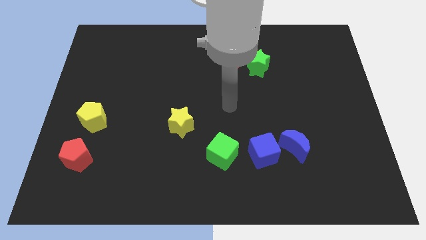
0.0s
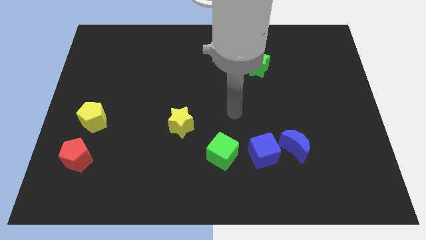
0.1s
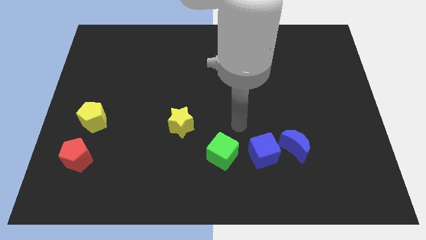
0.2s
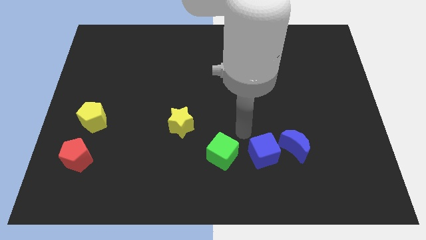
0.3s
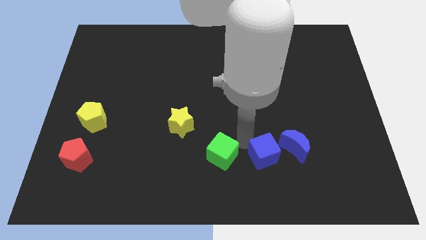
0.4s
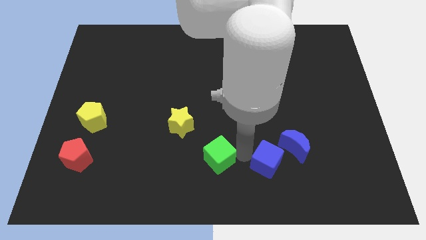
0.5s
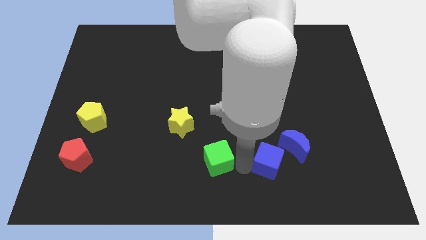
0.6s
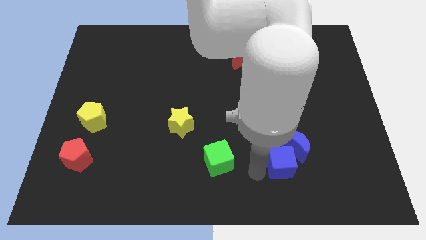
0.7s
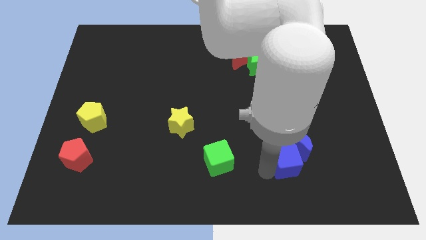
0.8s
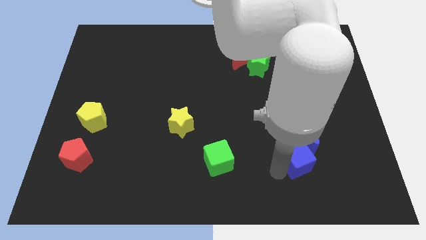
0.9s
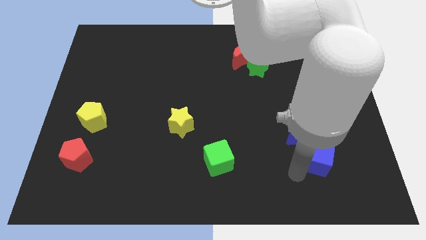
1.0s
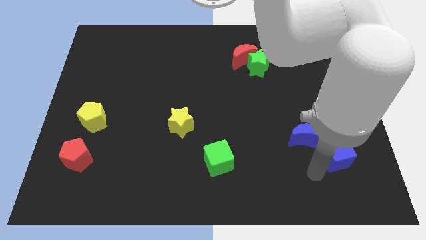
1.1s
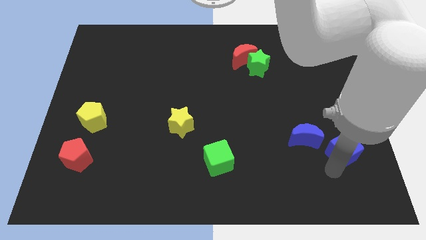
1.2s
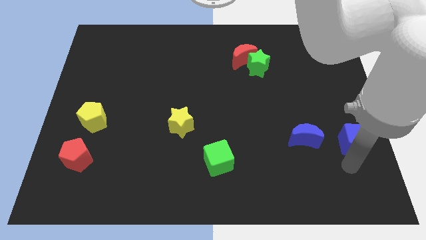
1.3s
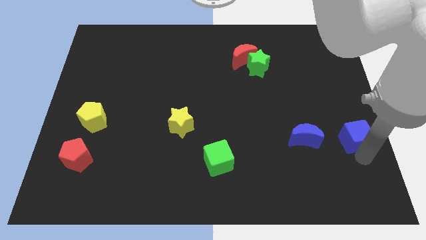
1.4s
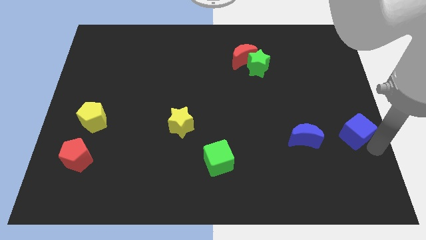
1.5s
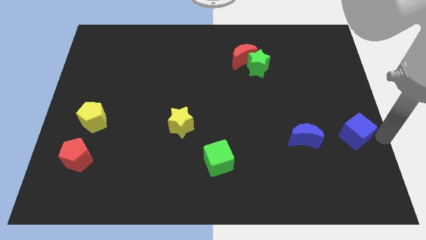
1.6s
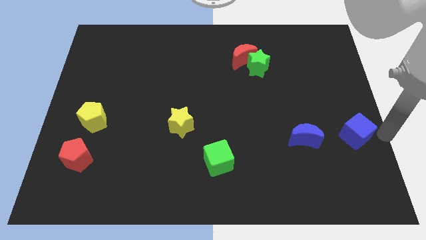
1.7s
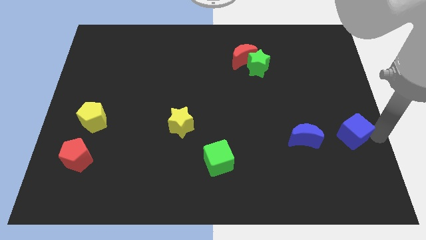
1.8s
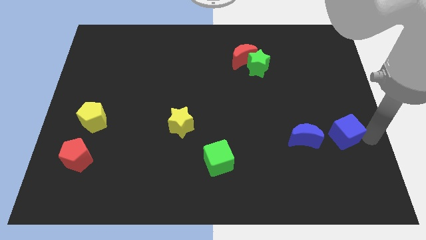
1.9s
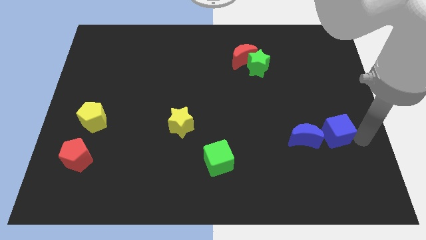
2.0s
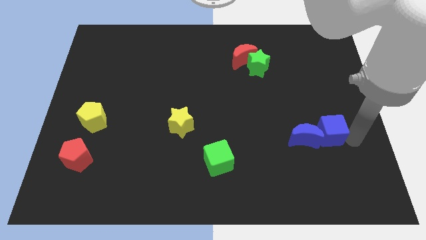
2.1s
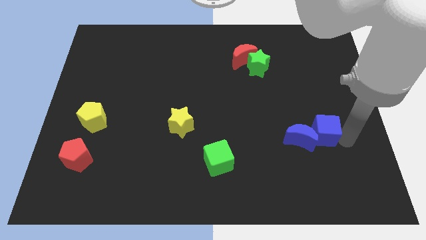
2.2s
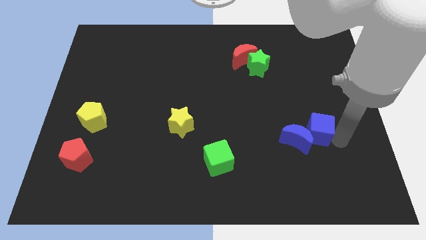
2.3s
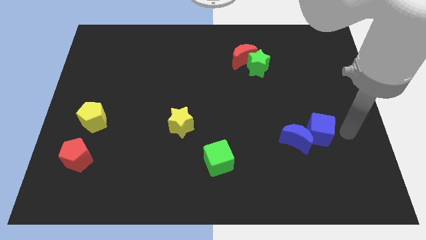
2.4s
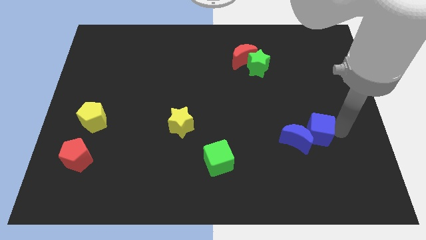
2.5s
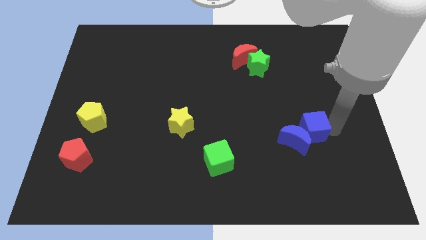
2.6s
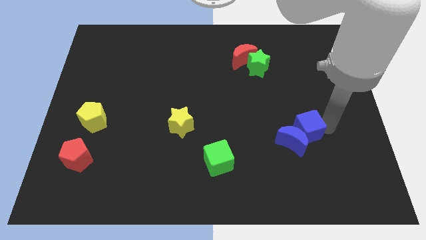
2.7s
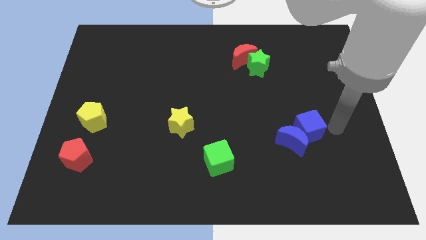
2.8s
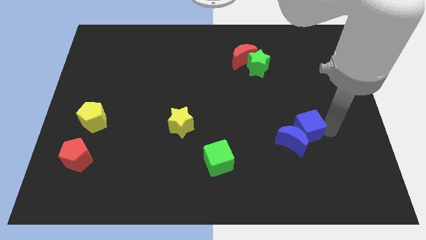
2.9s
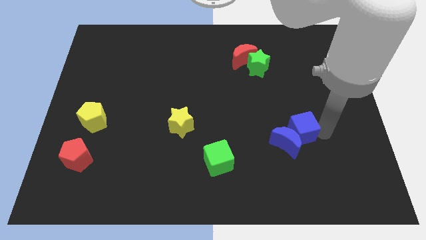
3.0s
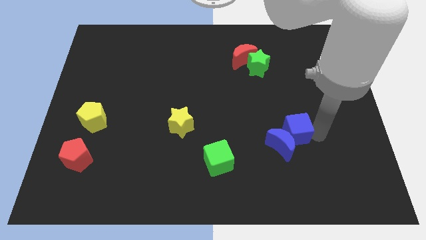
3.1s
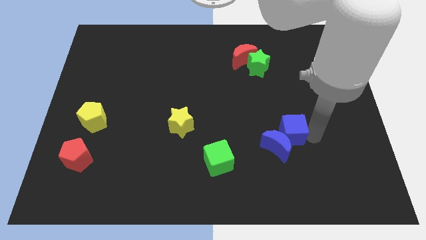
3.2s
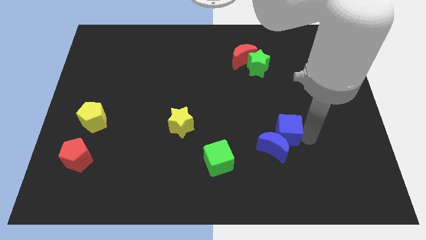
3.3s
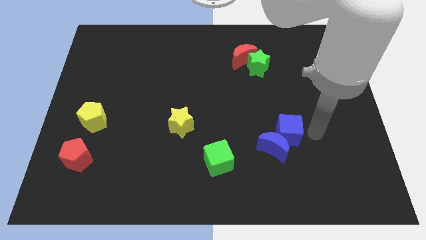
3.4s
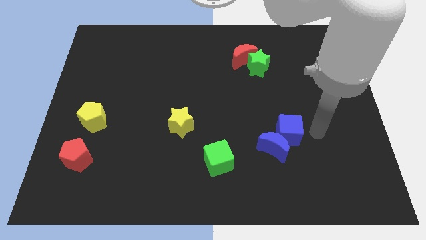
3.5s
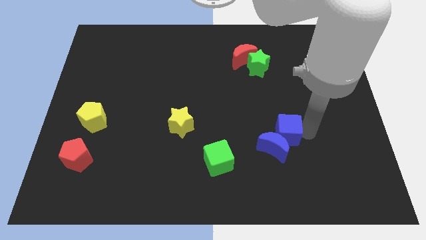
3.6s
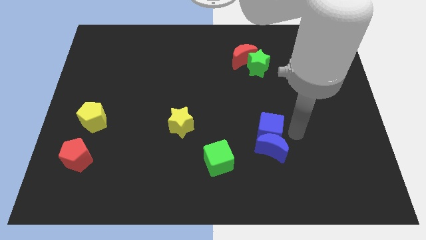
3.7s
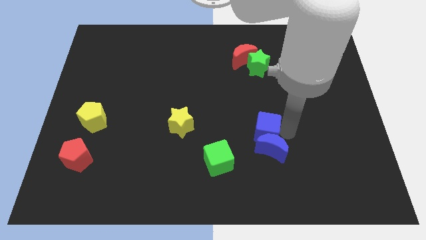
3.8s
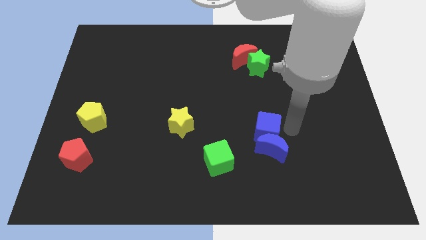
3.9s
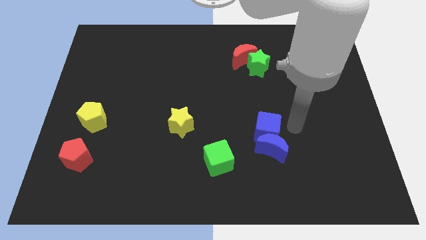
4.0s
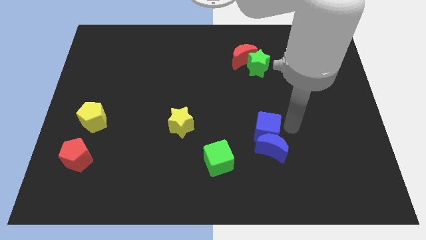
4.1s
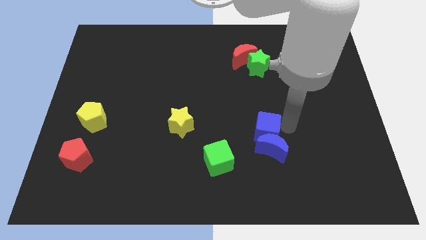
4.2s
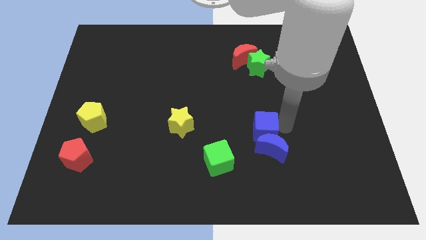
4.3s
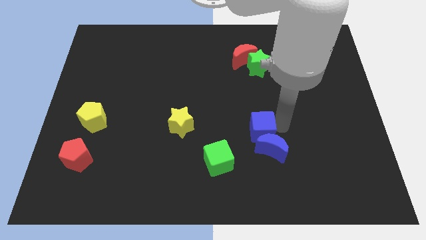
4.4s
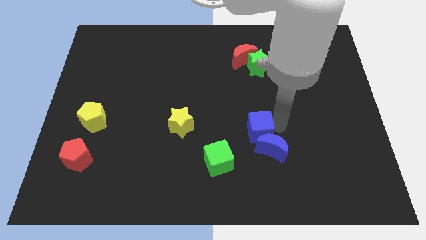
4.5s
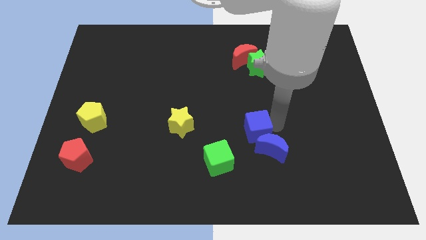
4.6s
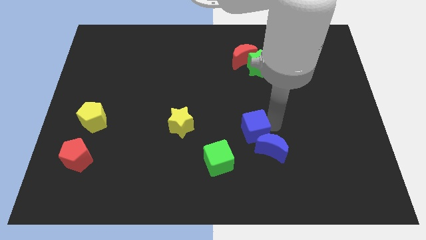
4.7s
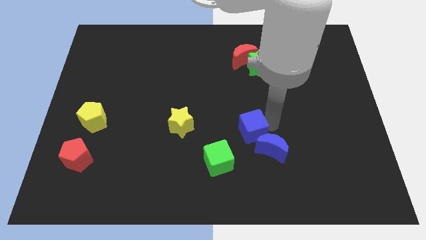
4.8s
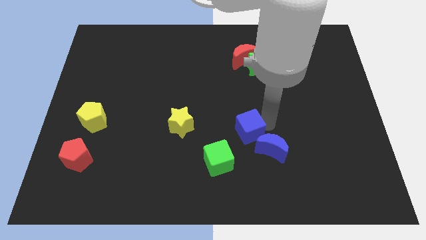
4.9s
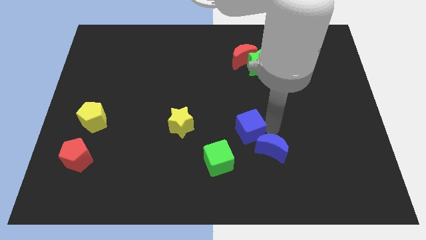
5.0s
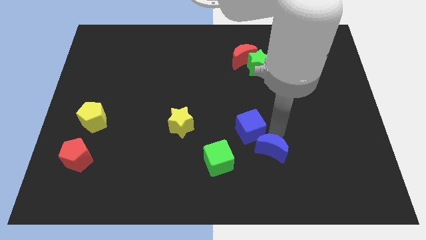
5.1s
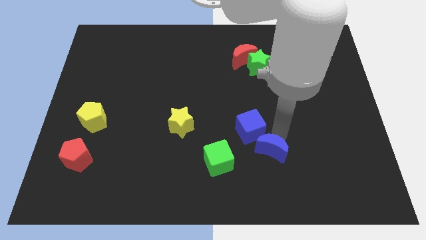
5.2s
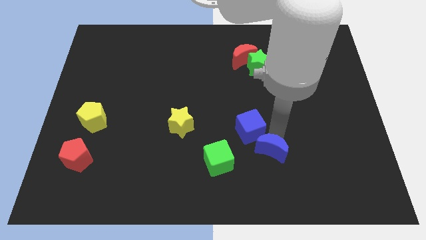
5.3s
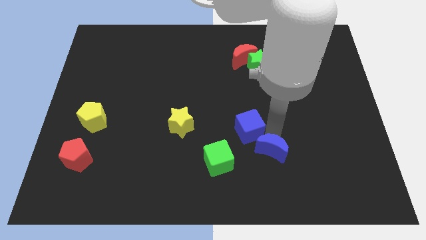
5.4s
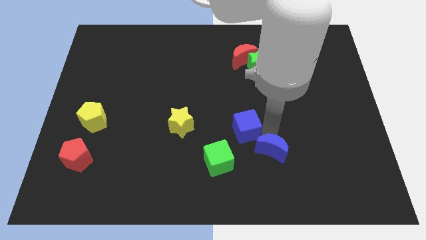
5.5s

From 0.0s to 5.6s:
push the blue cube a bit up and then left

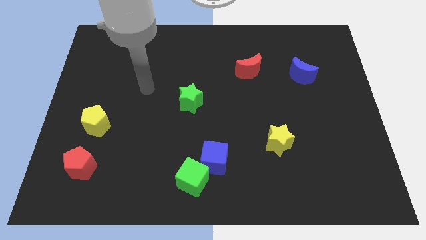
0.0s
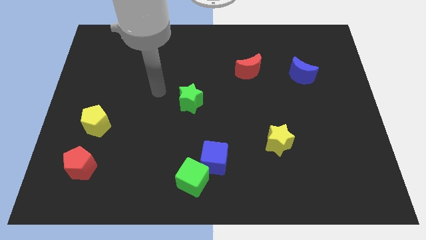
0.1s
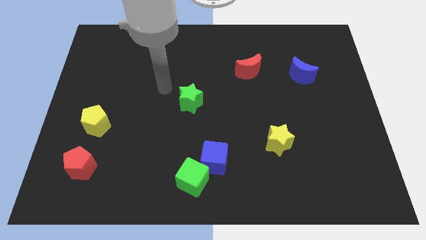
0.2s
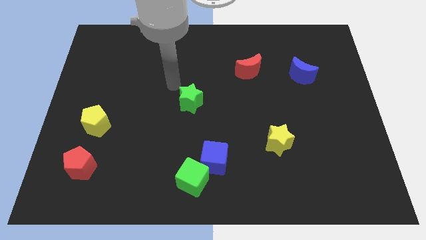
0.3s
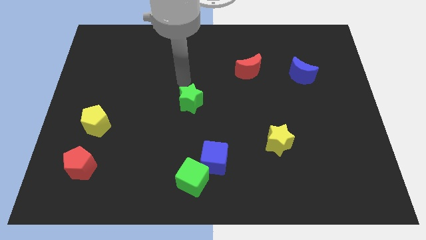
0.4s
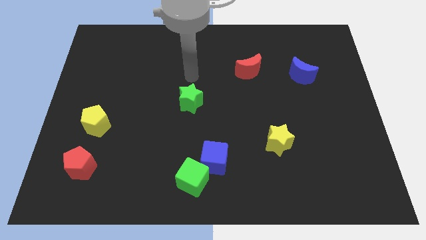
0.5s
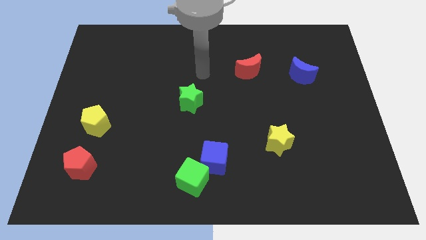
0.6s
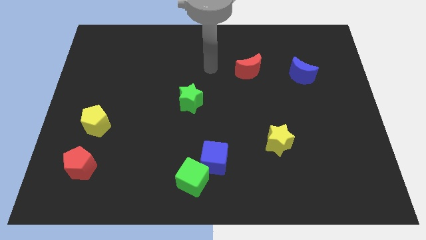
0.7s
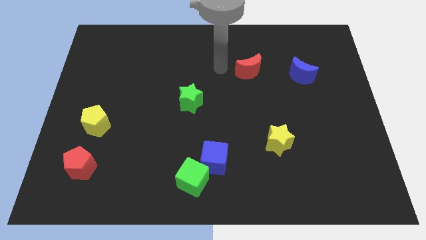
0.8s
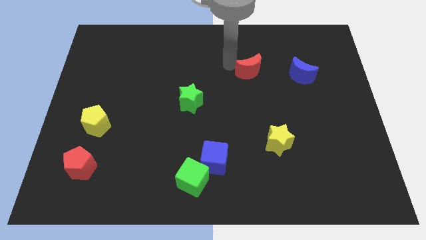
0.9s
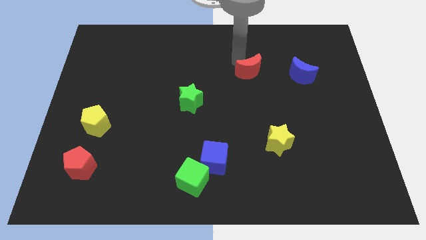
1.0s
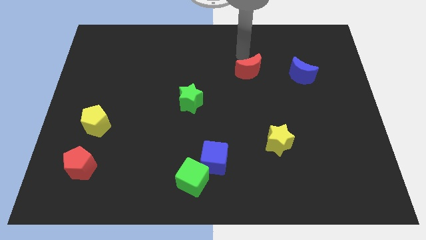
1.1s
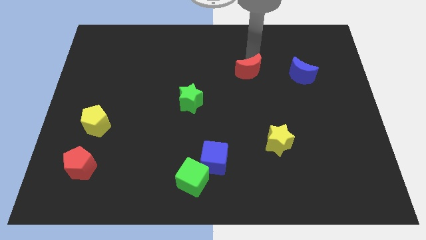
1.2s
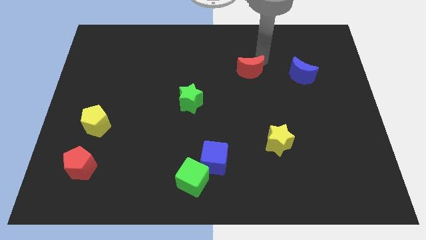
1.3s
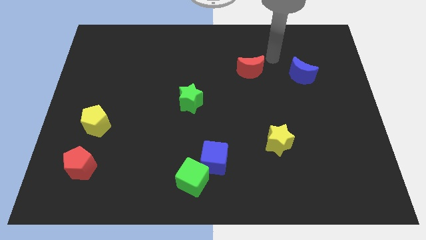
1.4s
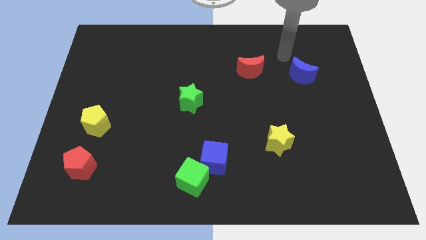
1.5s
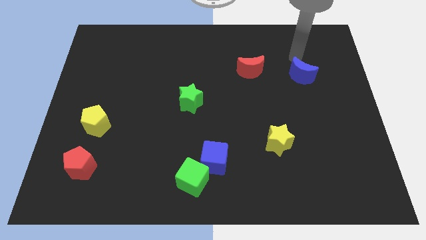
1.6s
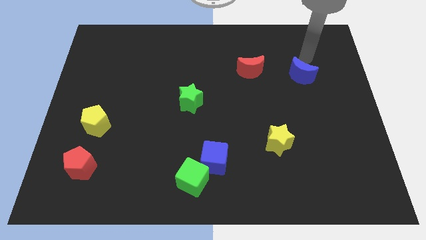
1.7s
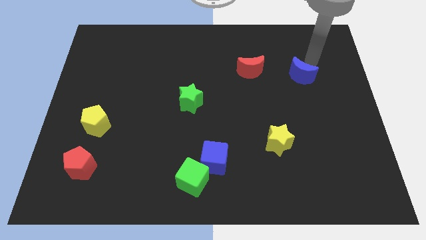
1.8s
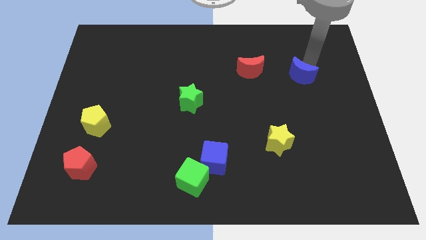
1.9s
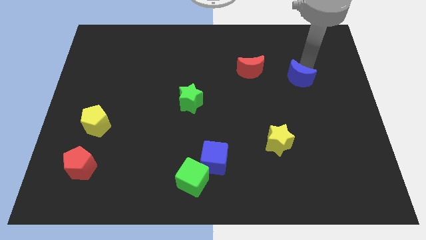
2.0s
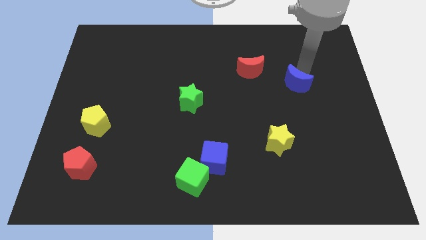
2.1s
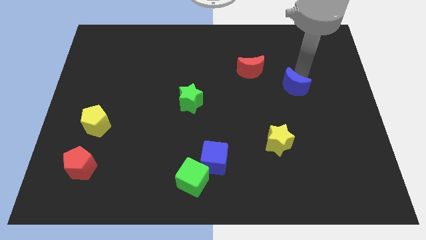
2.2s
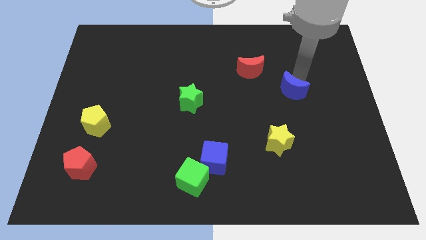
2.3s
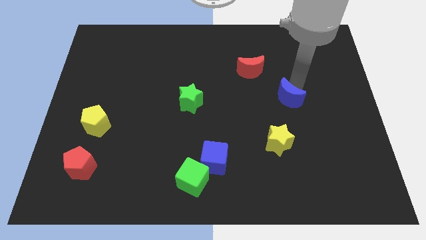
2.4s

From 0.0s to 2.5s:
move the blue moon down and left diagonally a little
